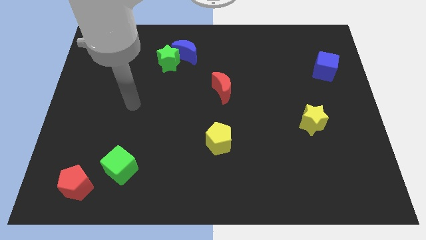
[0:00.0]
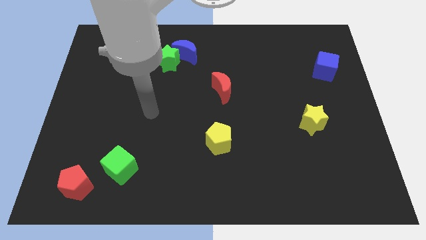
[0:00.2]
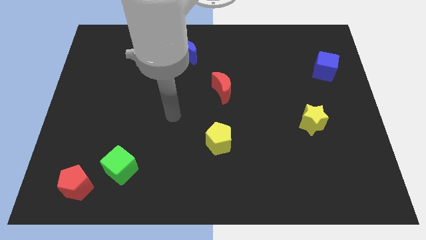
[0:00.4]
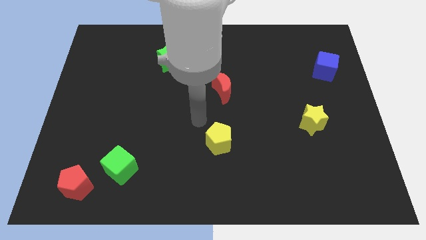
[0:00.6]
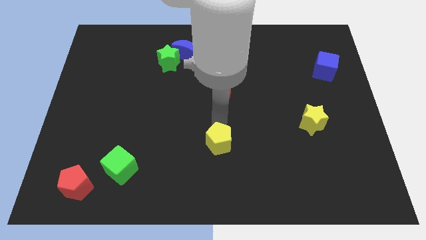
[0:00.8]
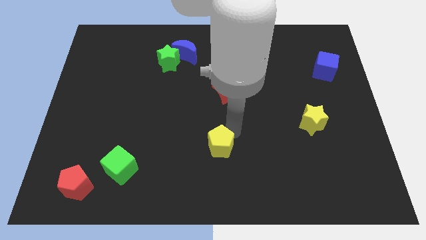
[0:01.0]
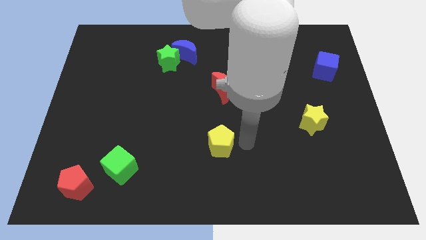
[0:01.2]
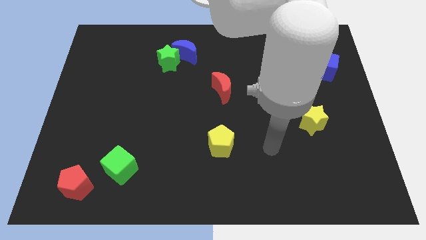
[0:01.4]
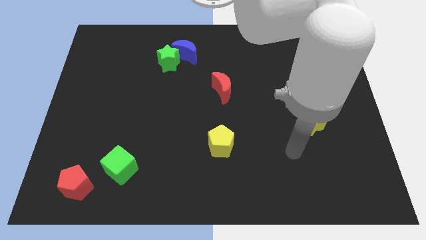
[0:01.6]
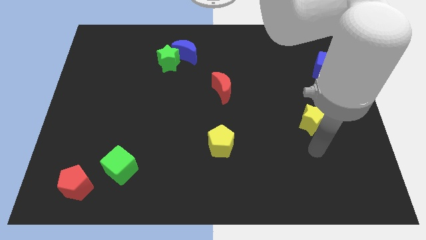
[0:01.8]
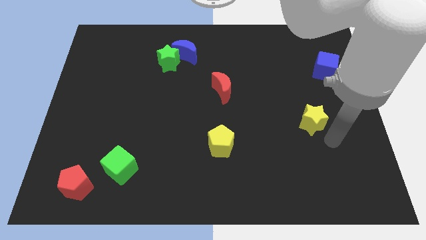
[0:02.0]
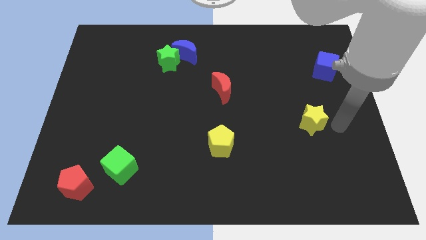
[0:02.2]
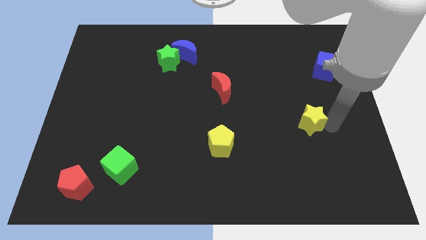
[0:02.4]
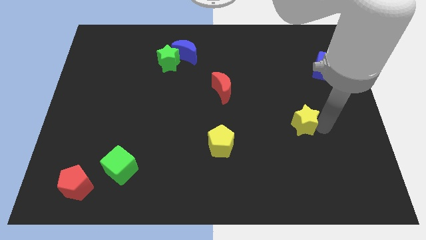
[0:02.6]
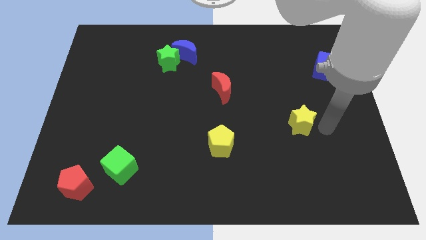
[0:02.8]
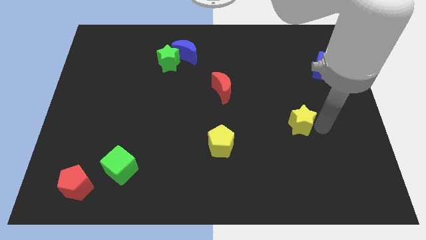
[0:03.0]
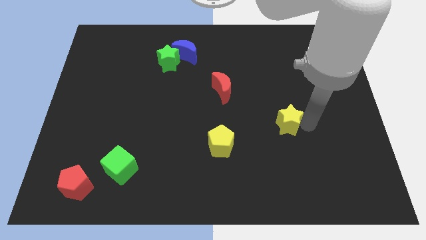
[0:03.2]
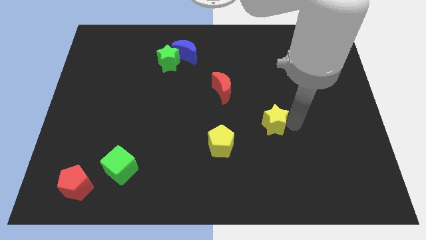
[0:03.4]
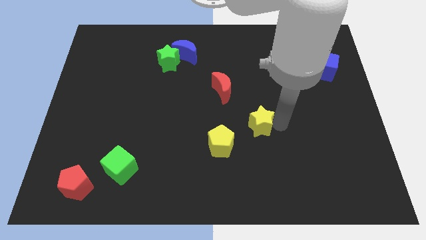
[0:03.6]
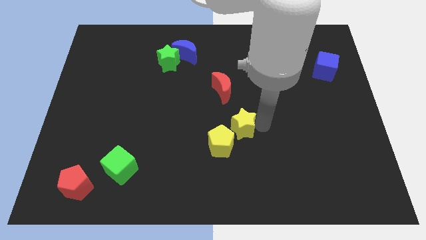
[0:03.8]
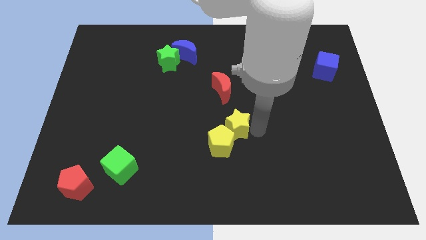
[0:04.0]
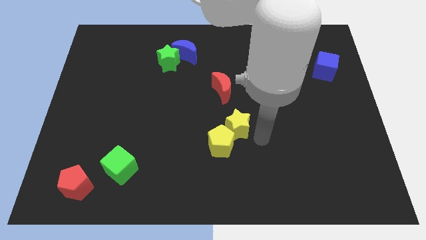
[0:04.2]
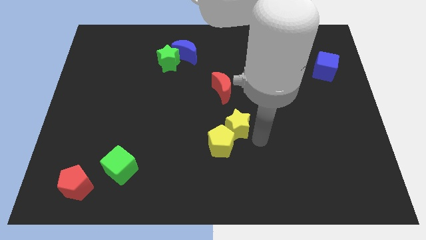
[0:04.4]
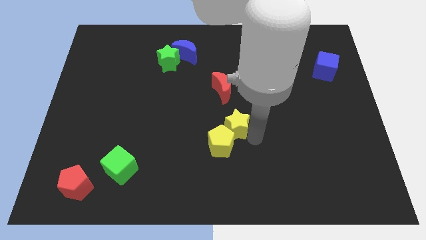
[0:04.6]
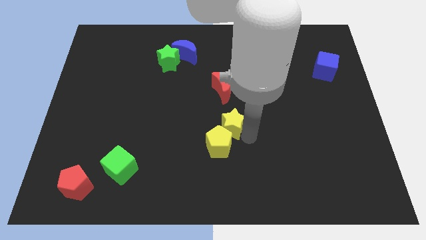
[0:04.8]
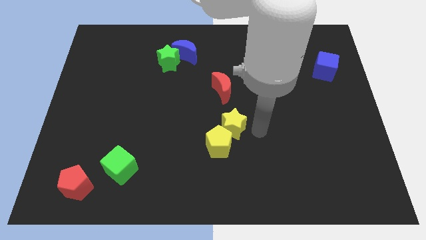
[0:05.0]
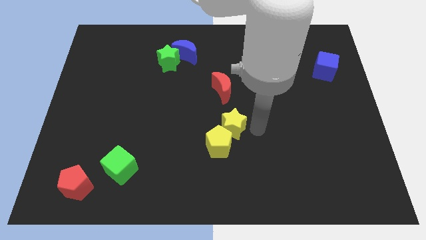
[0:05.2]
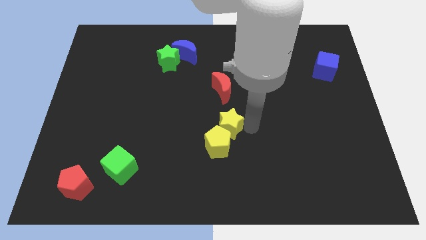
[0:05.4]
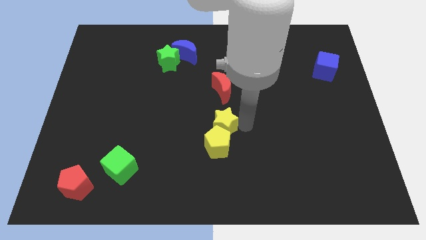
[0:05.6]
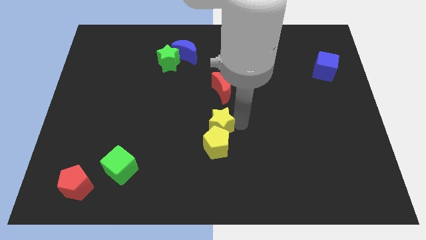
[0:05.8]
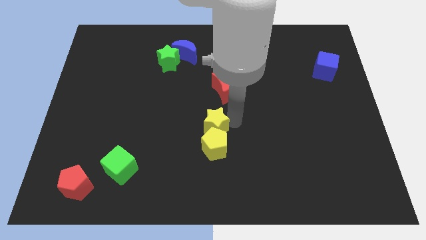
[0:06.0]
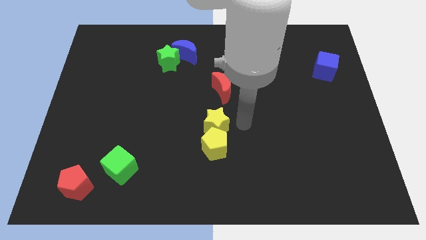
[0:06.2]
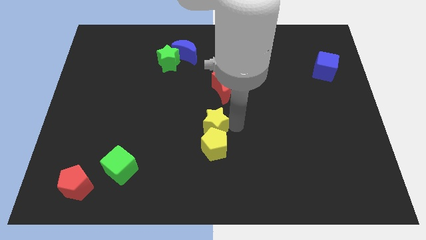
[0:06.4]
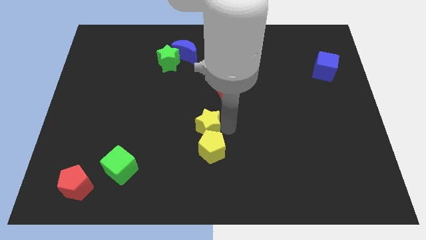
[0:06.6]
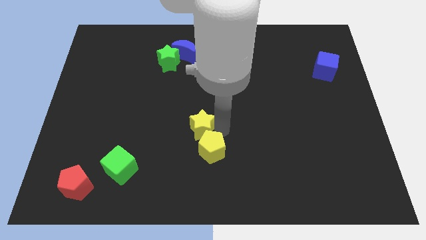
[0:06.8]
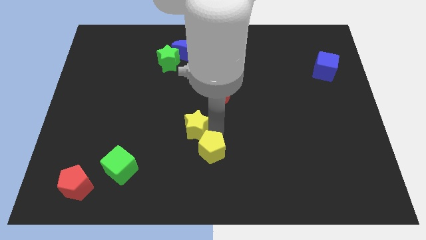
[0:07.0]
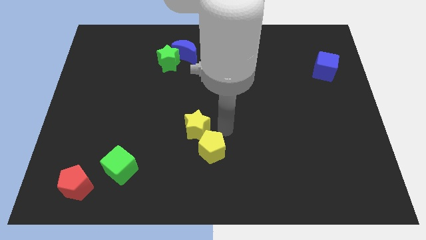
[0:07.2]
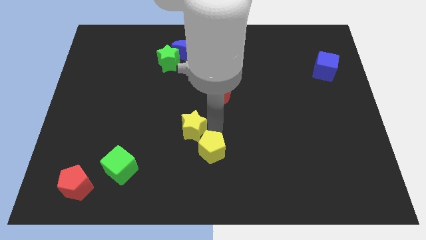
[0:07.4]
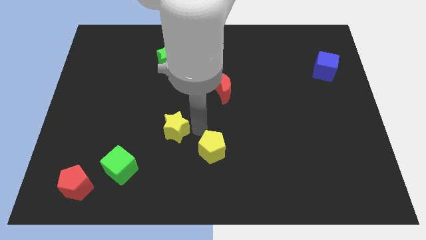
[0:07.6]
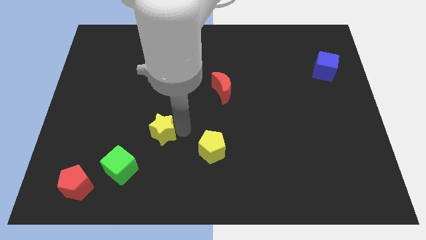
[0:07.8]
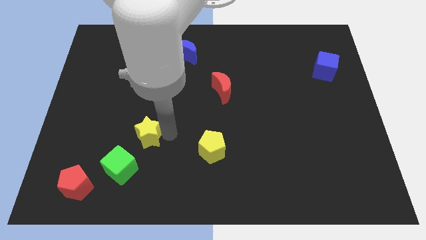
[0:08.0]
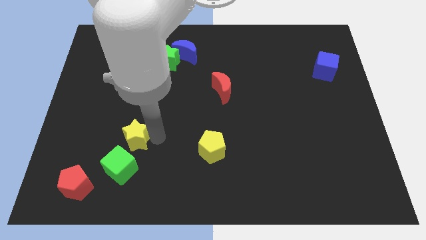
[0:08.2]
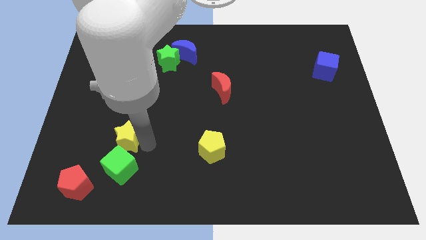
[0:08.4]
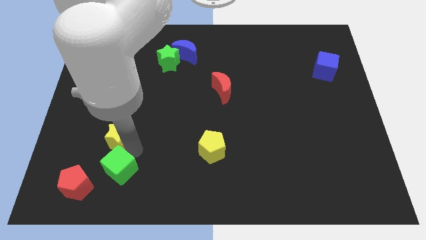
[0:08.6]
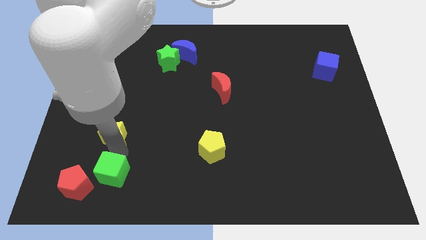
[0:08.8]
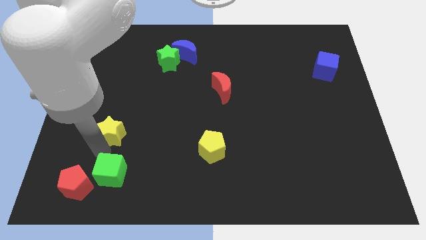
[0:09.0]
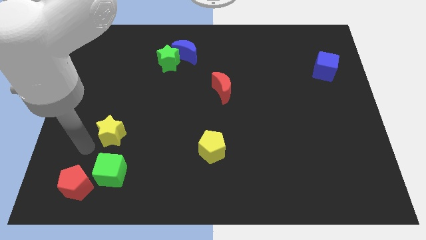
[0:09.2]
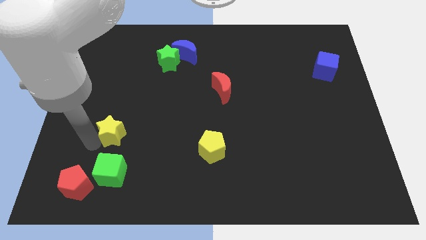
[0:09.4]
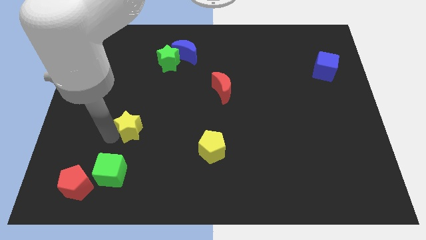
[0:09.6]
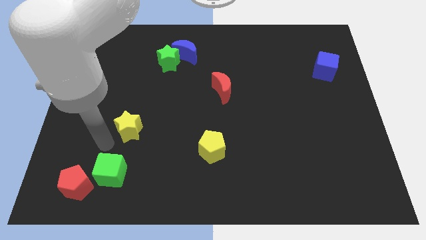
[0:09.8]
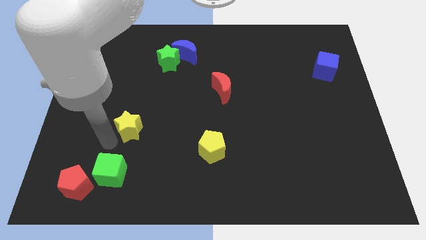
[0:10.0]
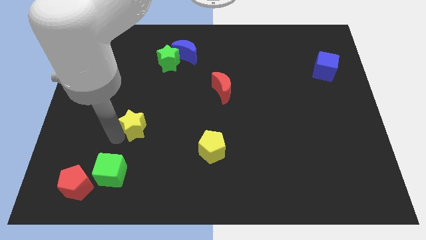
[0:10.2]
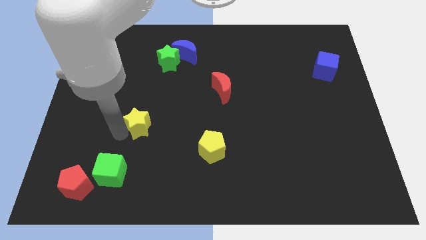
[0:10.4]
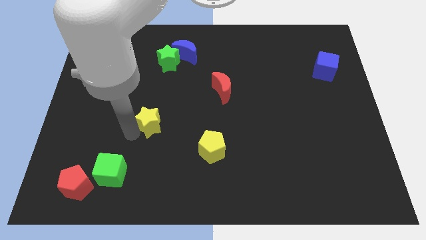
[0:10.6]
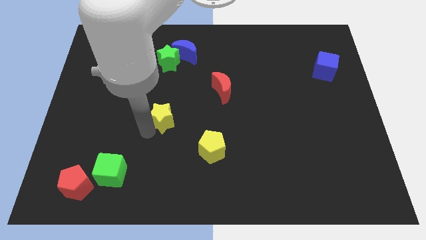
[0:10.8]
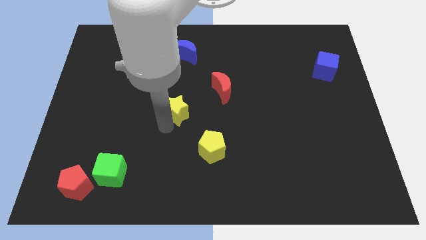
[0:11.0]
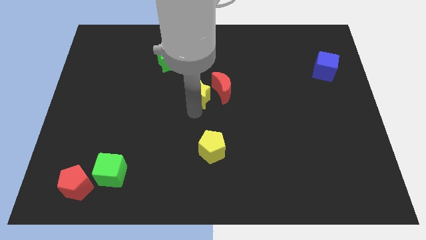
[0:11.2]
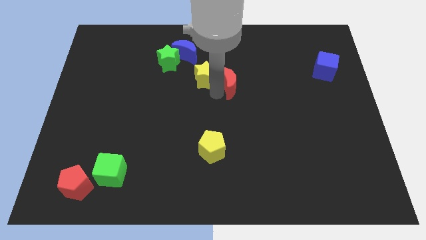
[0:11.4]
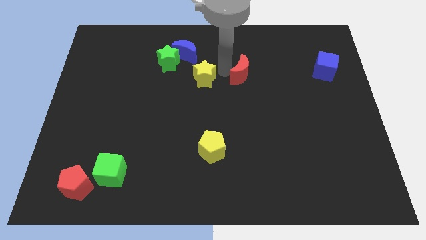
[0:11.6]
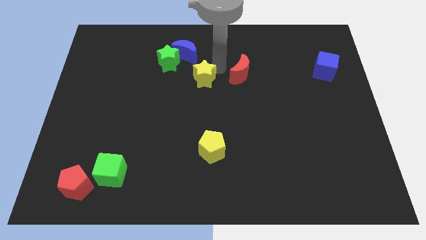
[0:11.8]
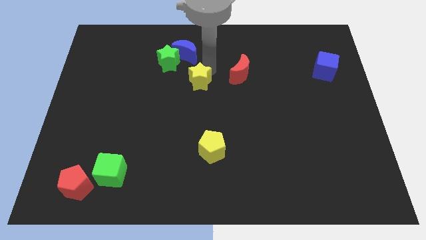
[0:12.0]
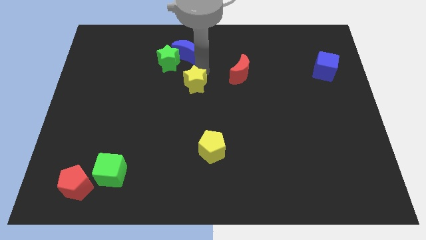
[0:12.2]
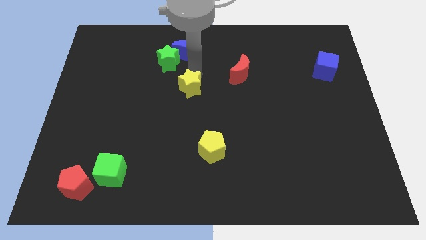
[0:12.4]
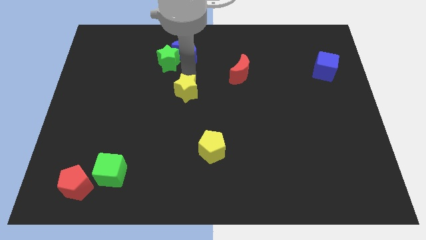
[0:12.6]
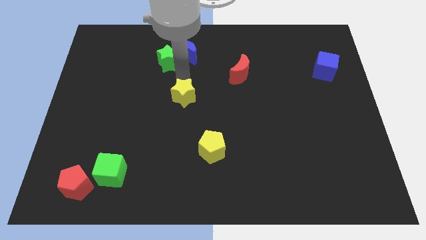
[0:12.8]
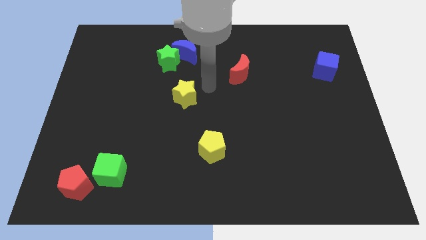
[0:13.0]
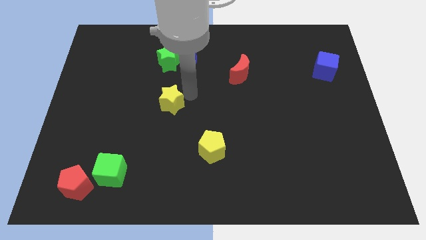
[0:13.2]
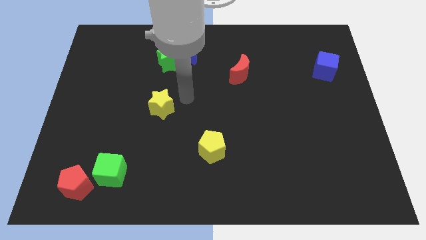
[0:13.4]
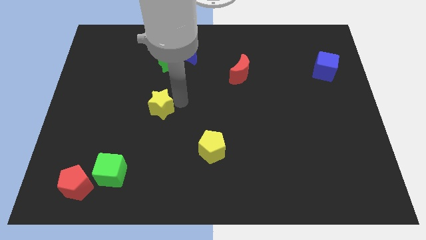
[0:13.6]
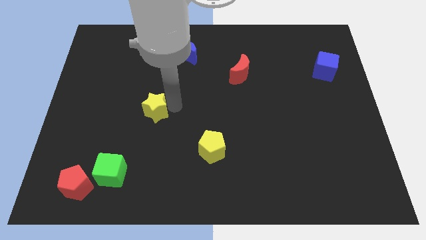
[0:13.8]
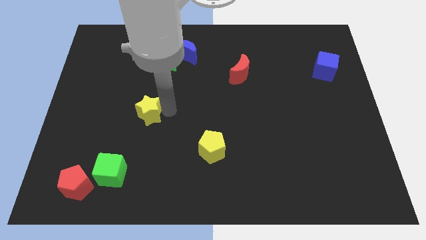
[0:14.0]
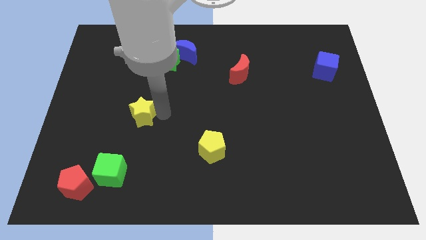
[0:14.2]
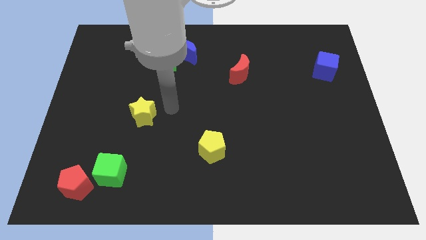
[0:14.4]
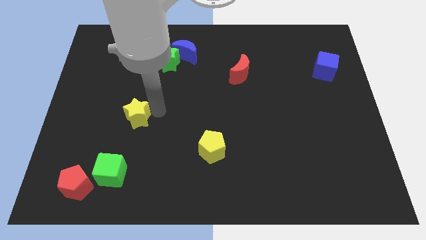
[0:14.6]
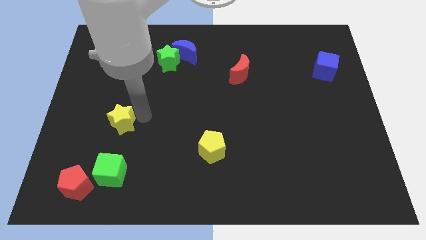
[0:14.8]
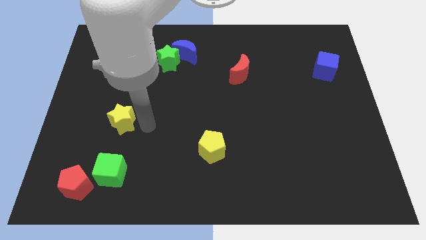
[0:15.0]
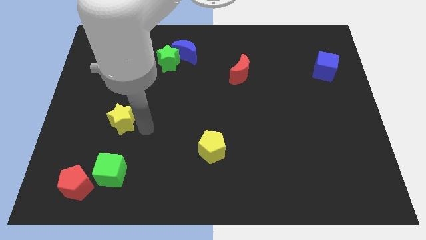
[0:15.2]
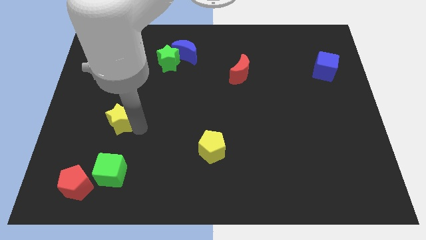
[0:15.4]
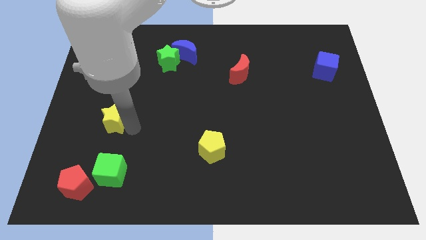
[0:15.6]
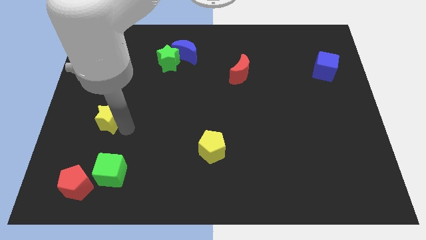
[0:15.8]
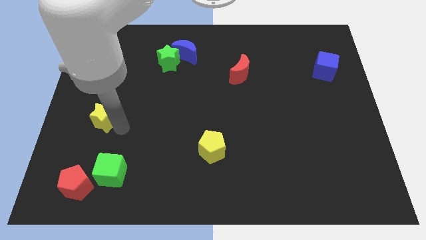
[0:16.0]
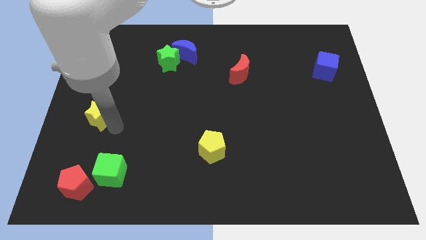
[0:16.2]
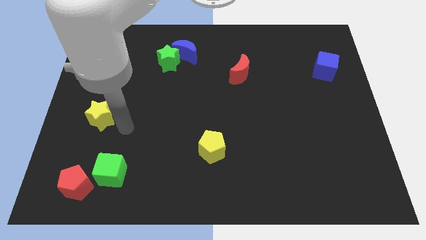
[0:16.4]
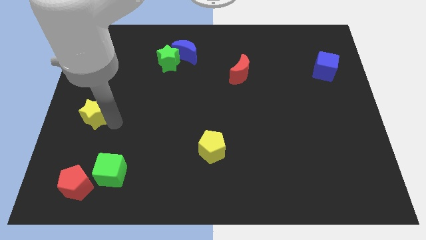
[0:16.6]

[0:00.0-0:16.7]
push the yellow star to the left side of the board
